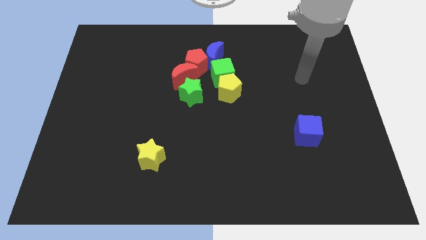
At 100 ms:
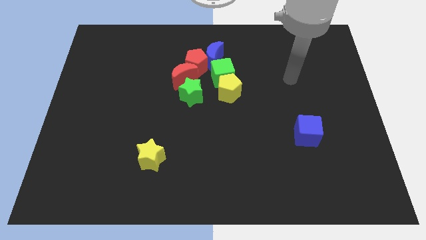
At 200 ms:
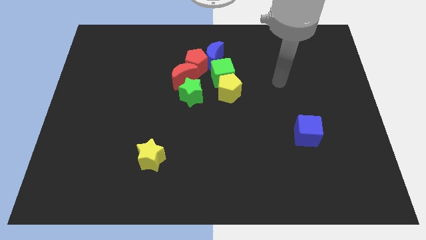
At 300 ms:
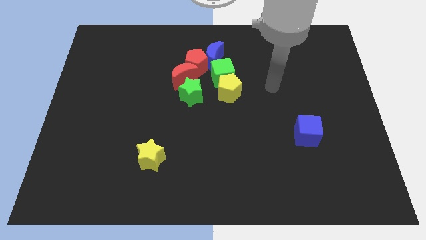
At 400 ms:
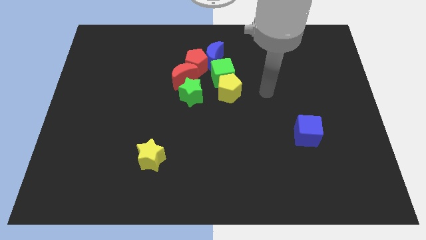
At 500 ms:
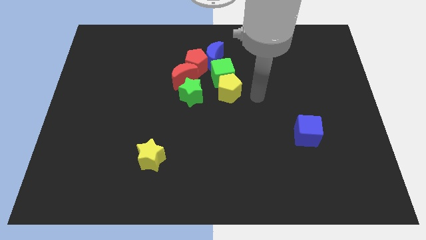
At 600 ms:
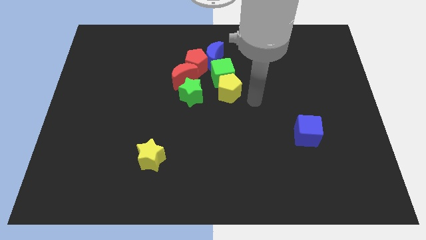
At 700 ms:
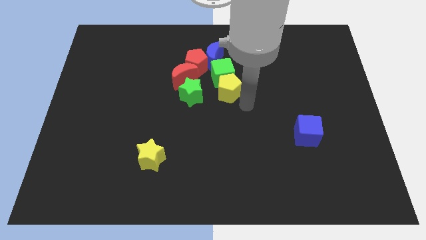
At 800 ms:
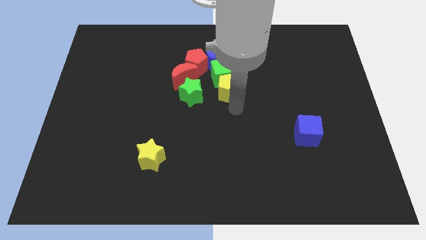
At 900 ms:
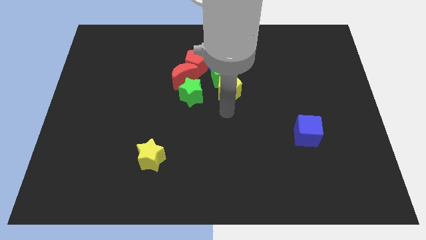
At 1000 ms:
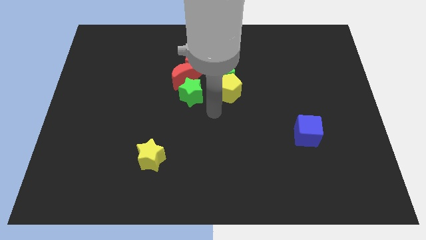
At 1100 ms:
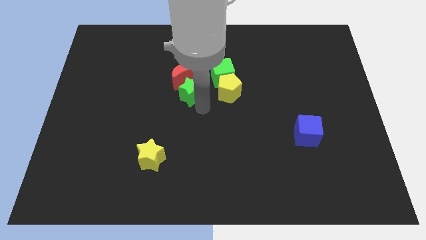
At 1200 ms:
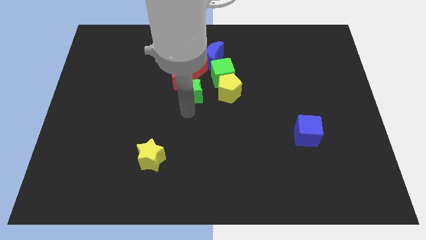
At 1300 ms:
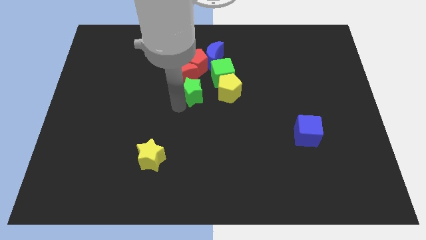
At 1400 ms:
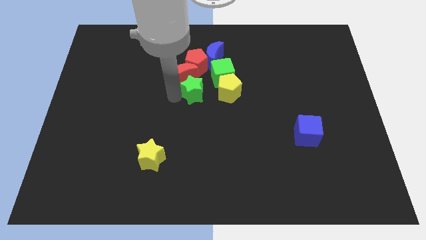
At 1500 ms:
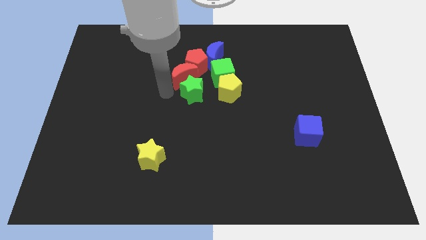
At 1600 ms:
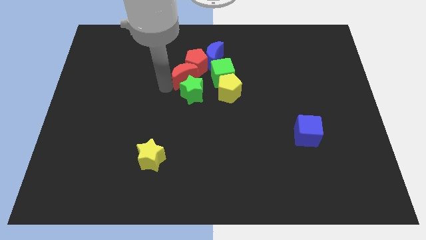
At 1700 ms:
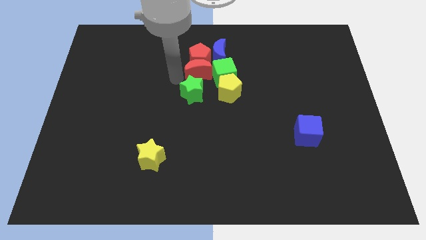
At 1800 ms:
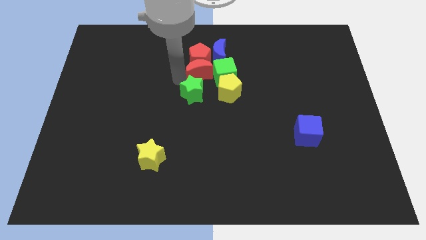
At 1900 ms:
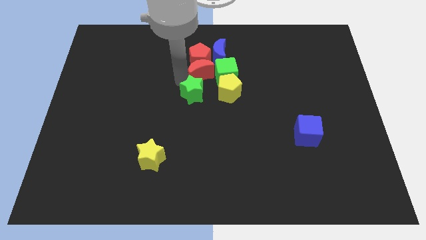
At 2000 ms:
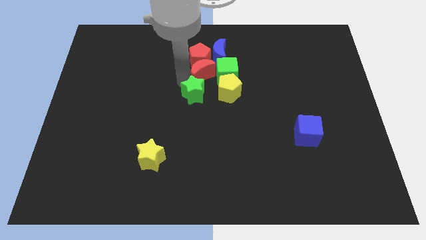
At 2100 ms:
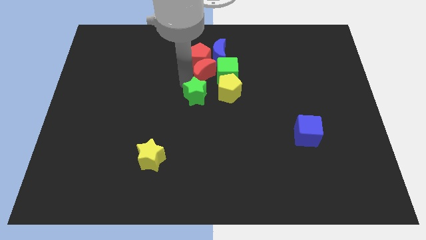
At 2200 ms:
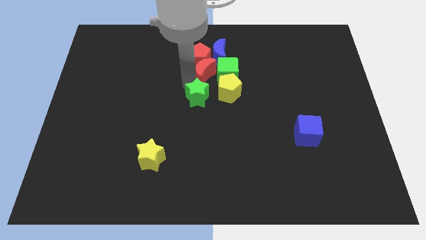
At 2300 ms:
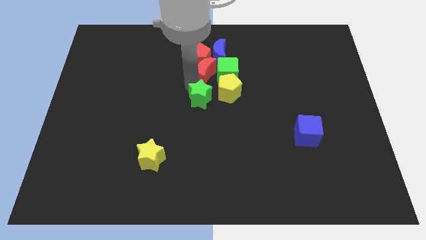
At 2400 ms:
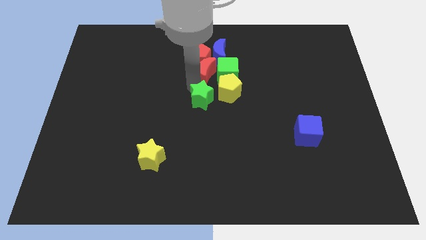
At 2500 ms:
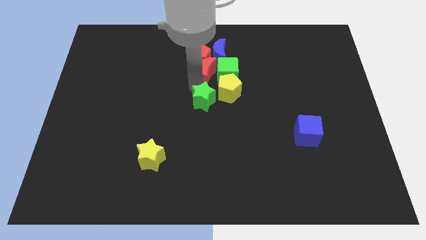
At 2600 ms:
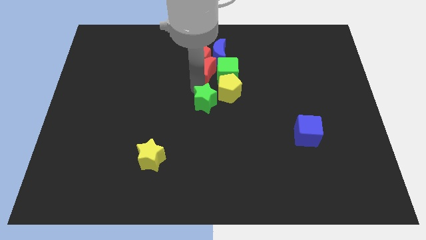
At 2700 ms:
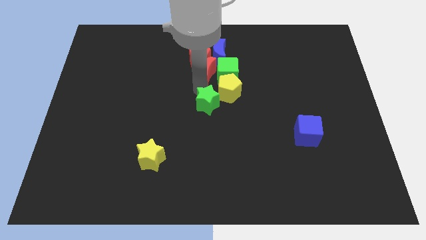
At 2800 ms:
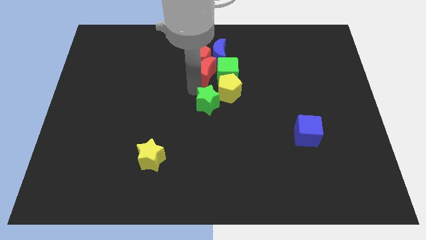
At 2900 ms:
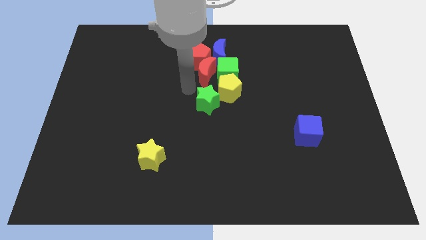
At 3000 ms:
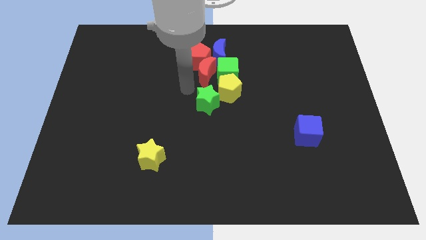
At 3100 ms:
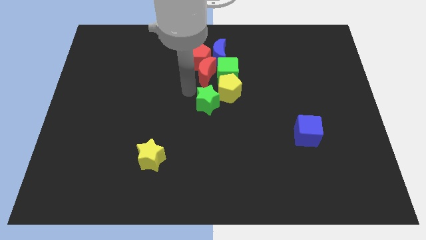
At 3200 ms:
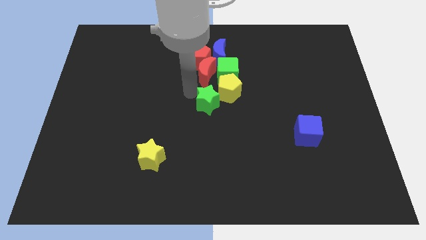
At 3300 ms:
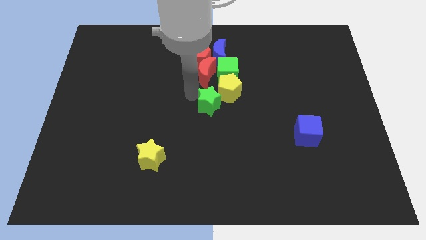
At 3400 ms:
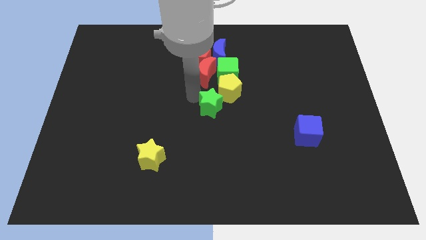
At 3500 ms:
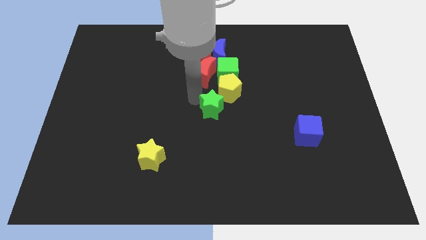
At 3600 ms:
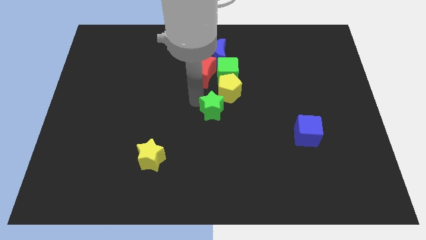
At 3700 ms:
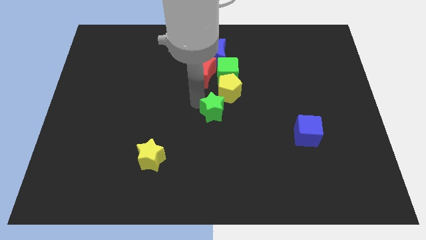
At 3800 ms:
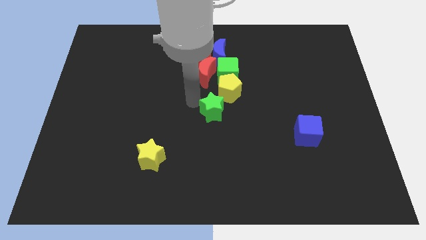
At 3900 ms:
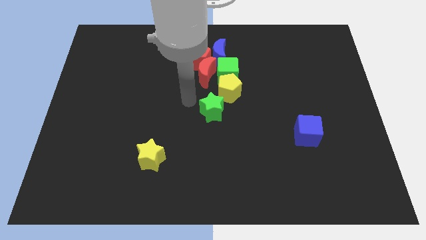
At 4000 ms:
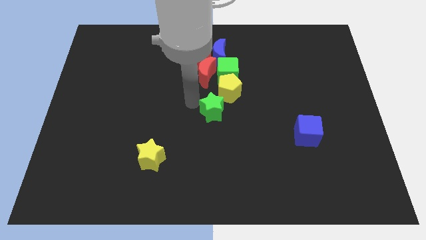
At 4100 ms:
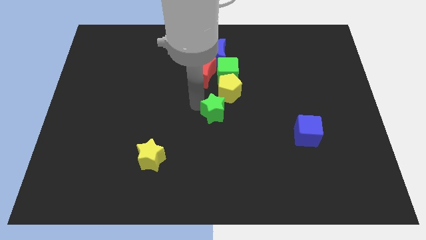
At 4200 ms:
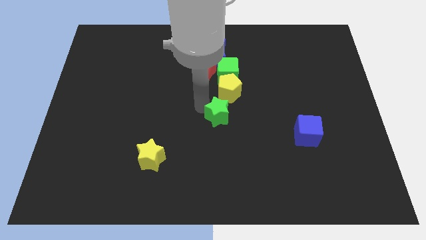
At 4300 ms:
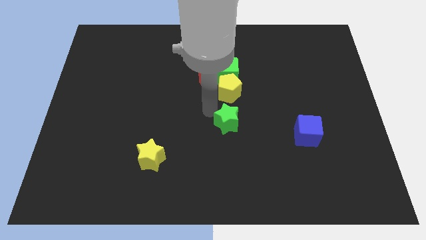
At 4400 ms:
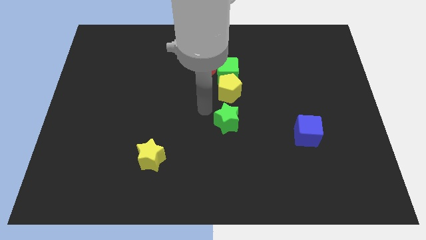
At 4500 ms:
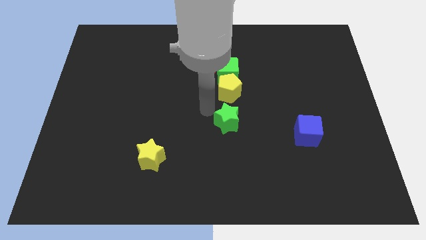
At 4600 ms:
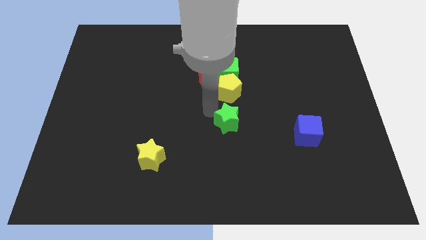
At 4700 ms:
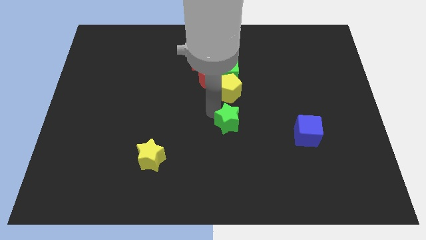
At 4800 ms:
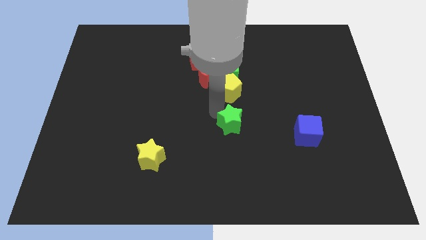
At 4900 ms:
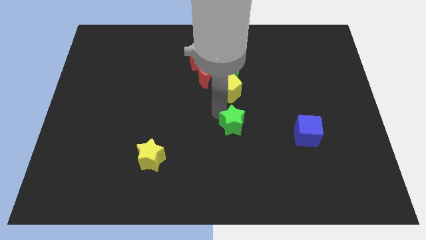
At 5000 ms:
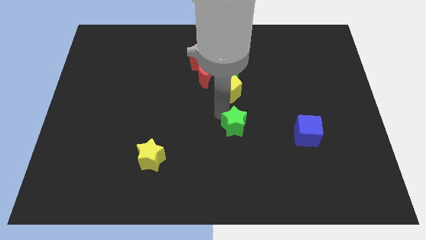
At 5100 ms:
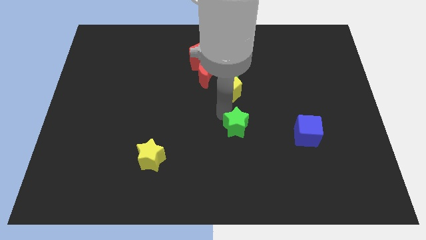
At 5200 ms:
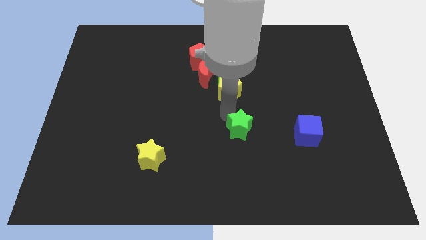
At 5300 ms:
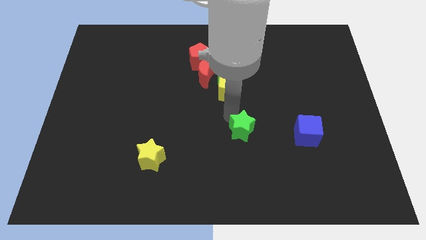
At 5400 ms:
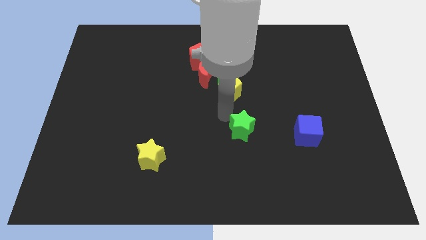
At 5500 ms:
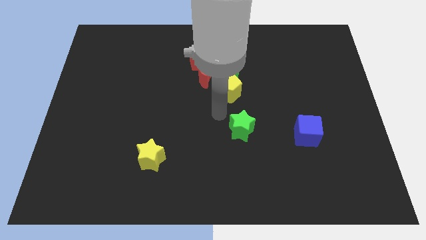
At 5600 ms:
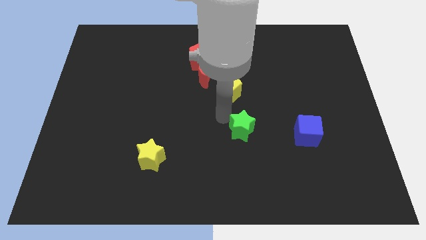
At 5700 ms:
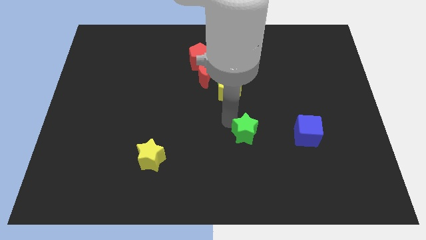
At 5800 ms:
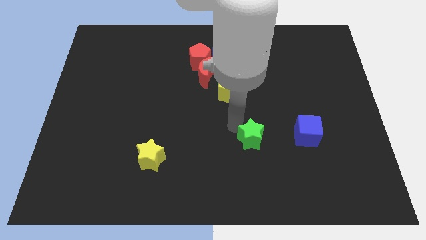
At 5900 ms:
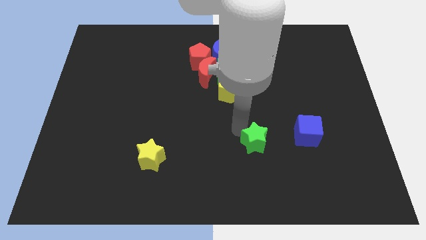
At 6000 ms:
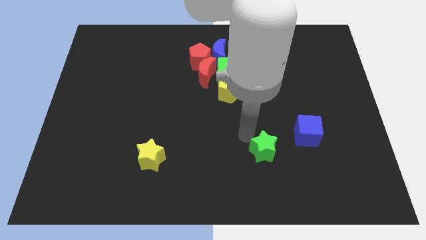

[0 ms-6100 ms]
push the green star down and right

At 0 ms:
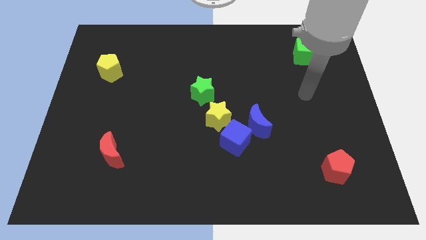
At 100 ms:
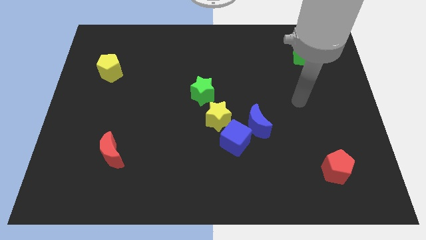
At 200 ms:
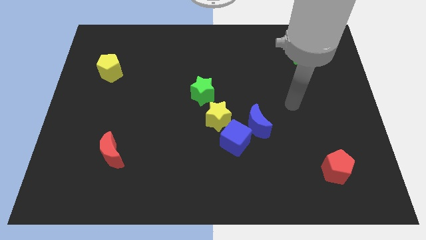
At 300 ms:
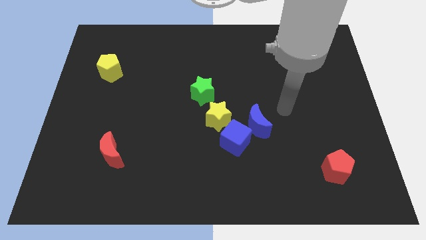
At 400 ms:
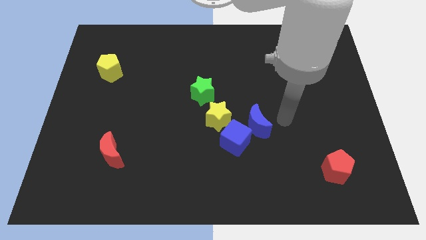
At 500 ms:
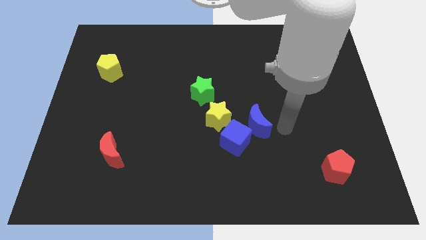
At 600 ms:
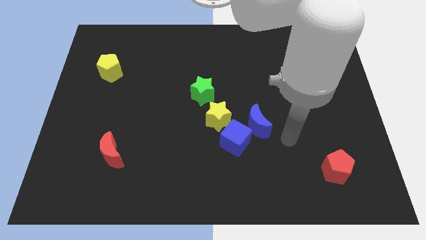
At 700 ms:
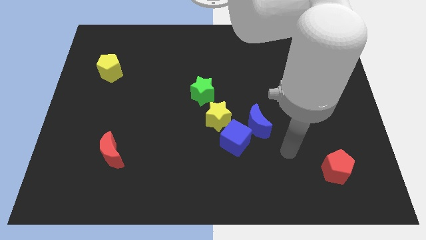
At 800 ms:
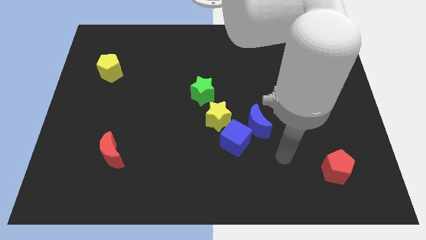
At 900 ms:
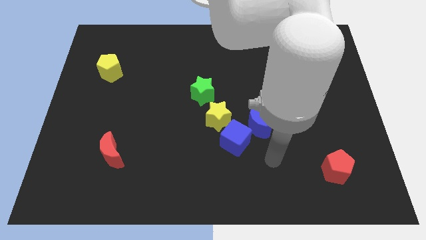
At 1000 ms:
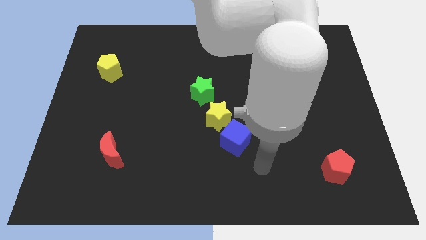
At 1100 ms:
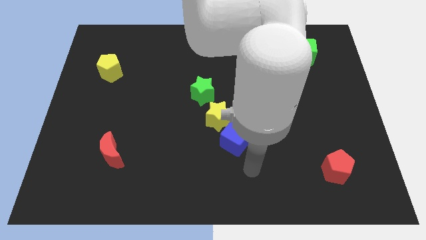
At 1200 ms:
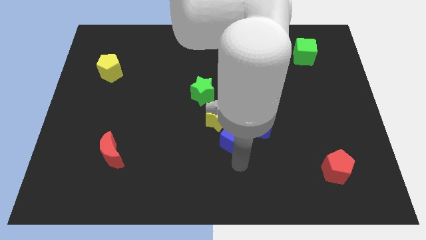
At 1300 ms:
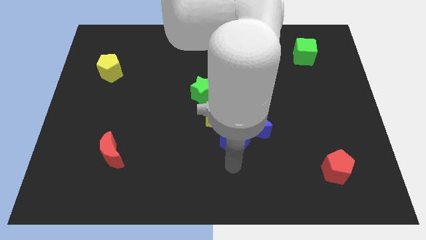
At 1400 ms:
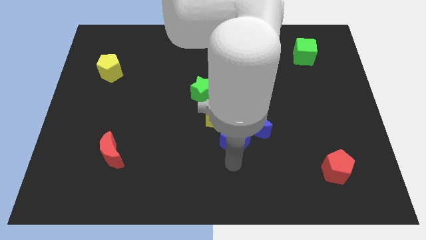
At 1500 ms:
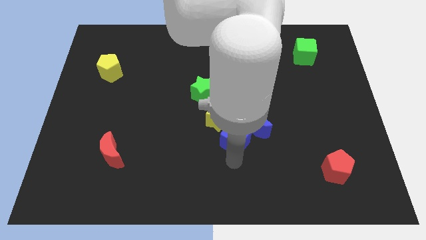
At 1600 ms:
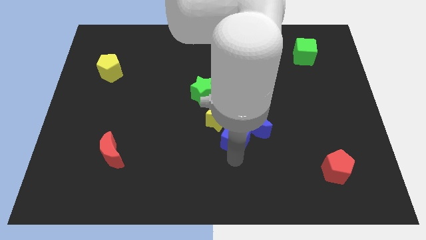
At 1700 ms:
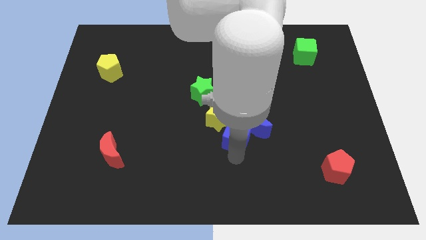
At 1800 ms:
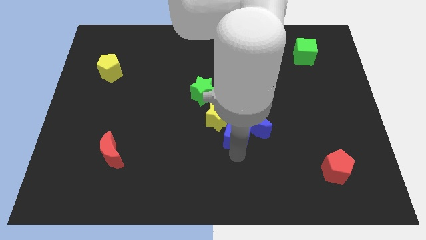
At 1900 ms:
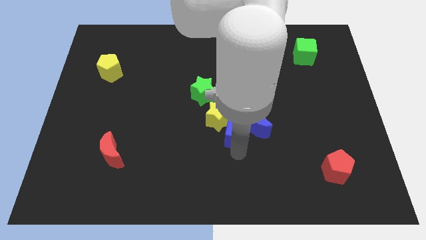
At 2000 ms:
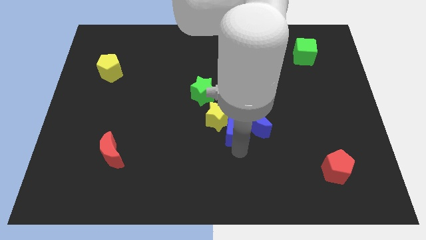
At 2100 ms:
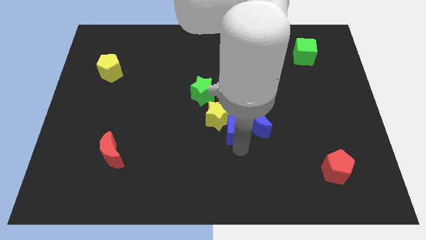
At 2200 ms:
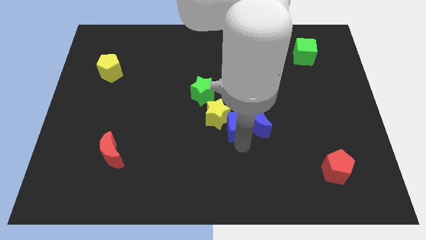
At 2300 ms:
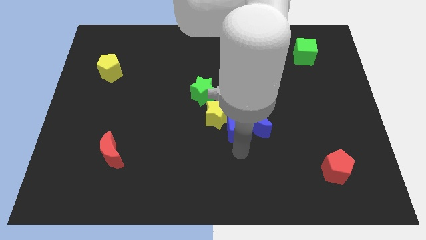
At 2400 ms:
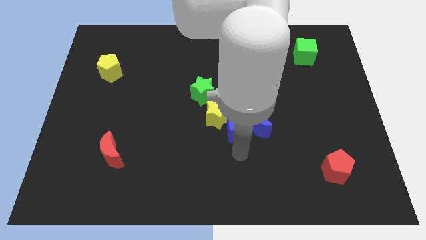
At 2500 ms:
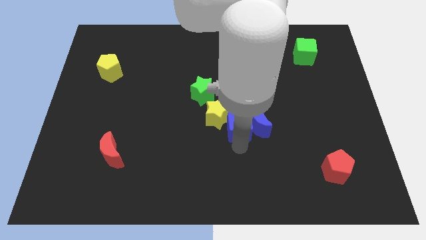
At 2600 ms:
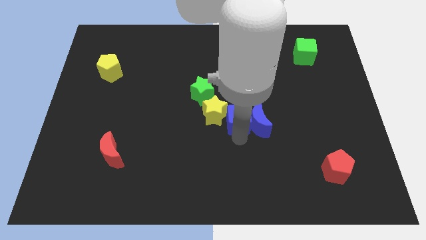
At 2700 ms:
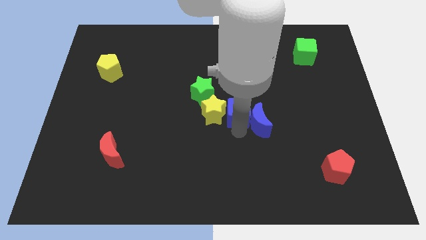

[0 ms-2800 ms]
move the blue cube upwards slightly
